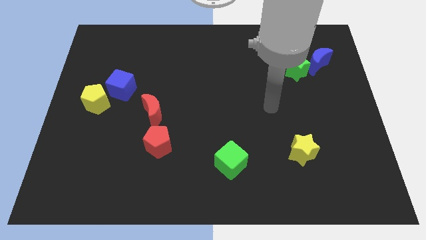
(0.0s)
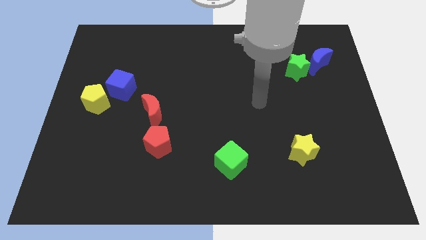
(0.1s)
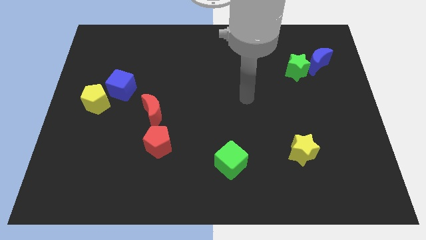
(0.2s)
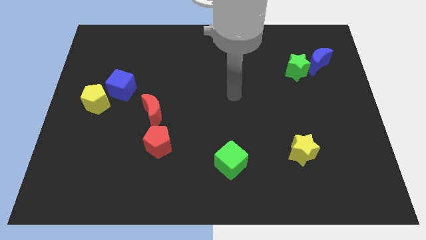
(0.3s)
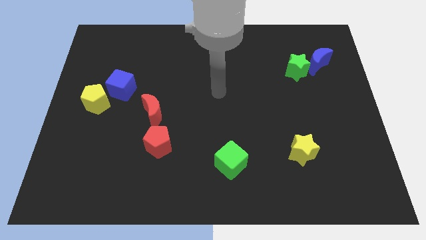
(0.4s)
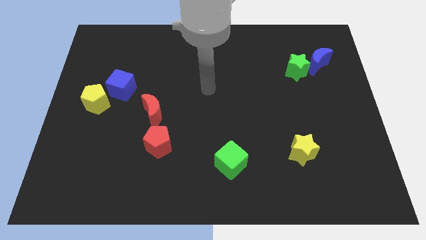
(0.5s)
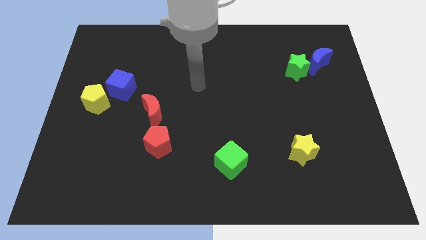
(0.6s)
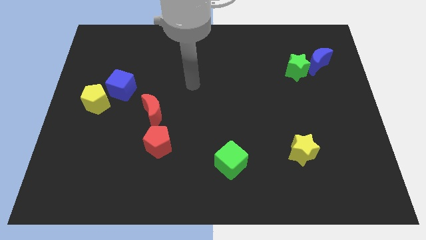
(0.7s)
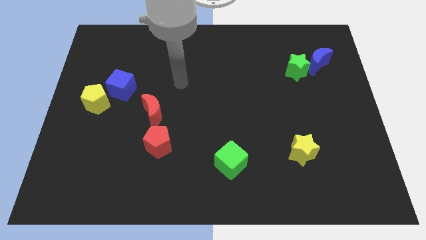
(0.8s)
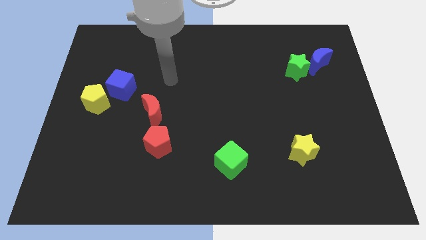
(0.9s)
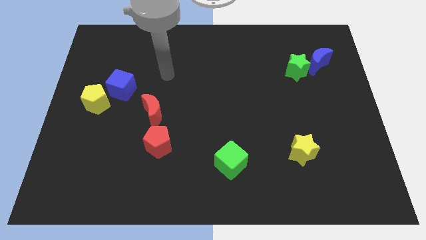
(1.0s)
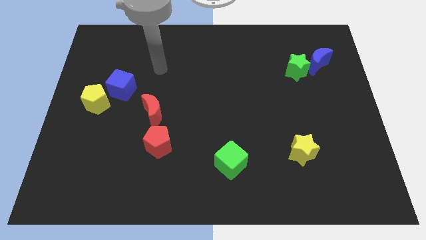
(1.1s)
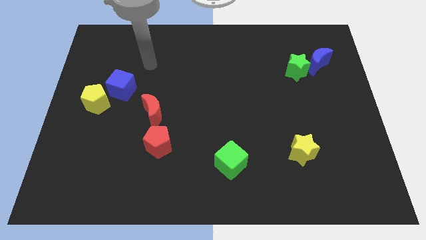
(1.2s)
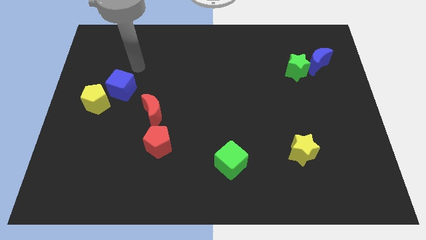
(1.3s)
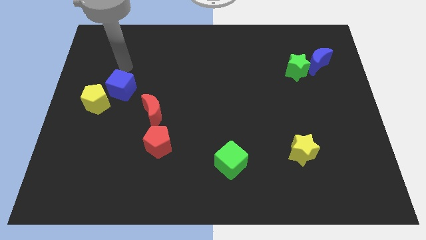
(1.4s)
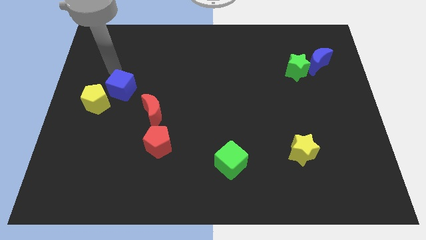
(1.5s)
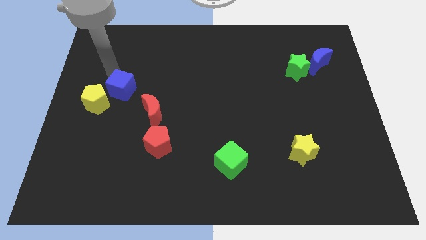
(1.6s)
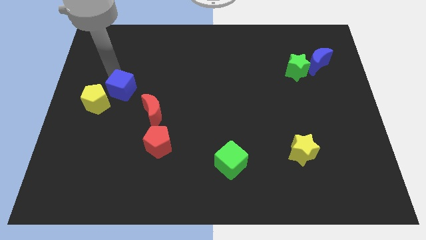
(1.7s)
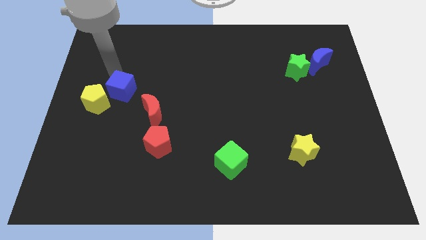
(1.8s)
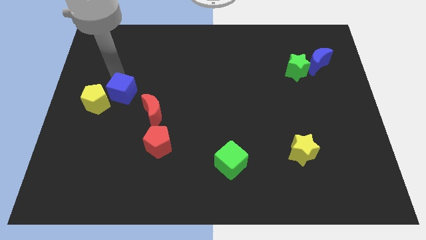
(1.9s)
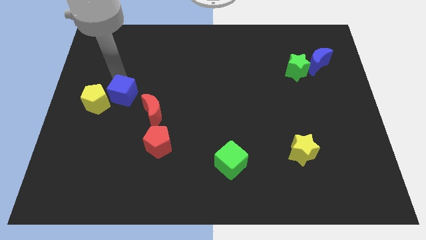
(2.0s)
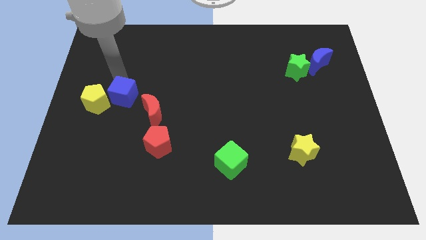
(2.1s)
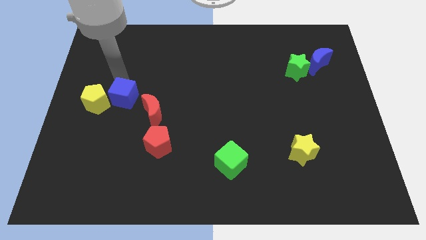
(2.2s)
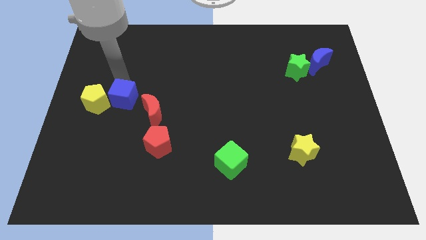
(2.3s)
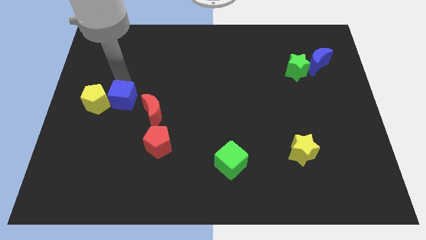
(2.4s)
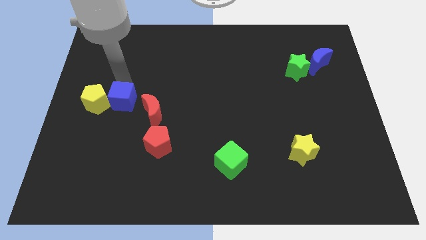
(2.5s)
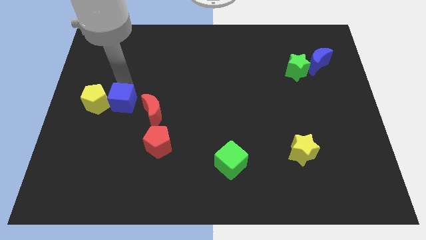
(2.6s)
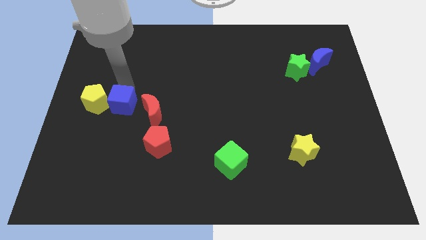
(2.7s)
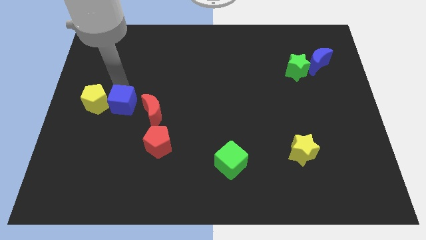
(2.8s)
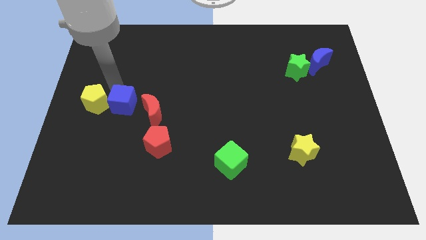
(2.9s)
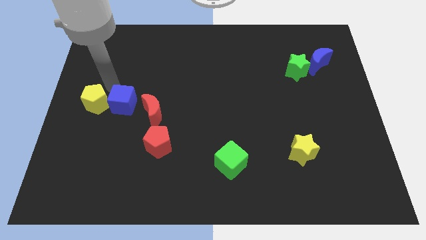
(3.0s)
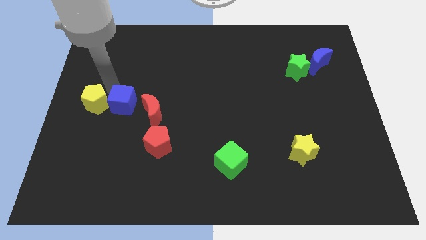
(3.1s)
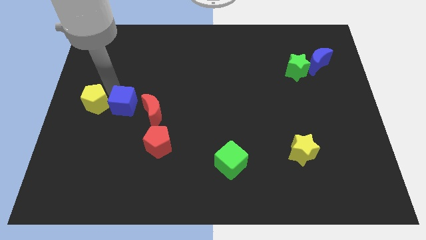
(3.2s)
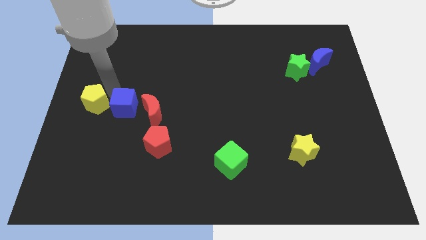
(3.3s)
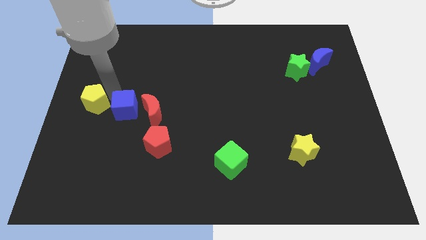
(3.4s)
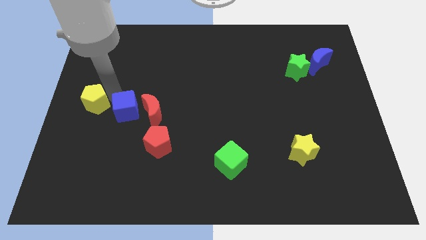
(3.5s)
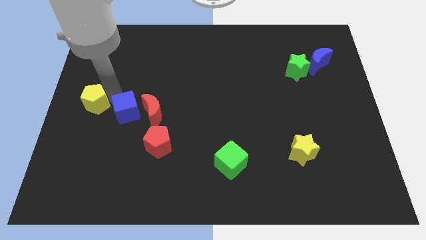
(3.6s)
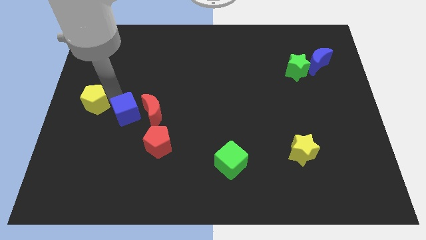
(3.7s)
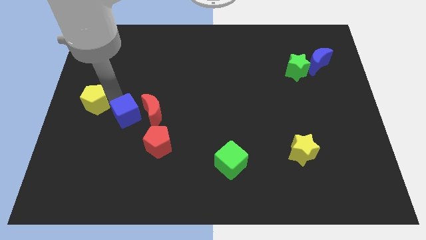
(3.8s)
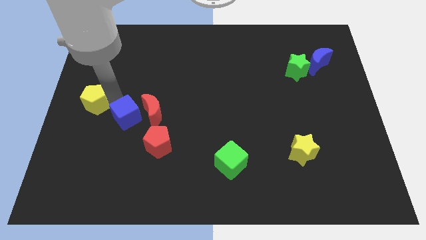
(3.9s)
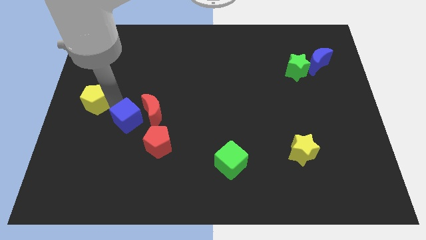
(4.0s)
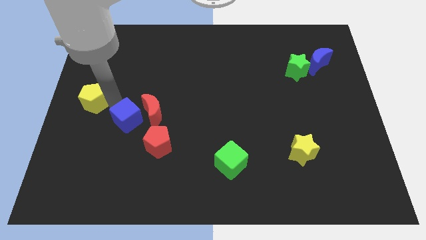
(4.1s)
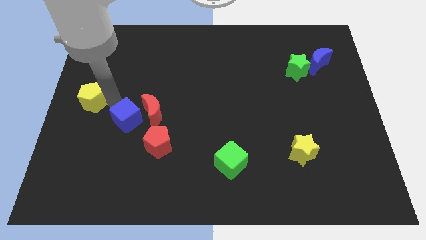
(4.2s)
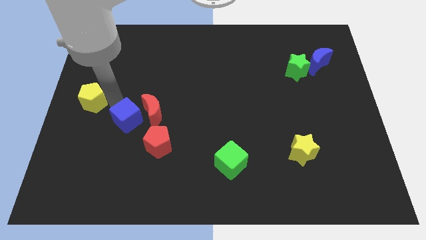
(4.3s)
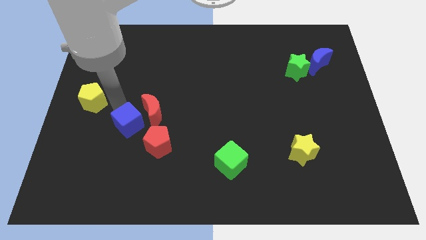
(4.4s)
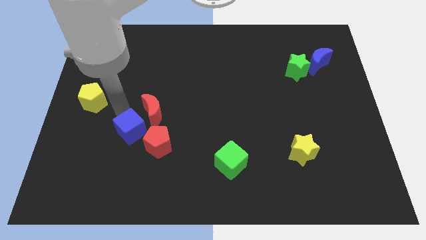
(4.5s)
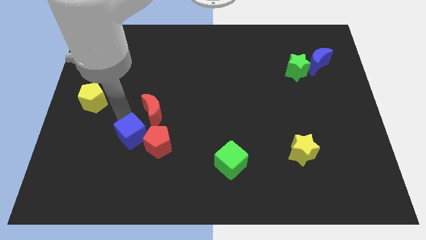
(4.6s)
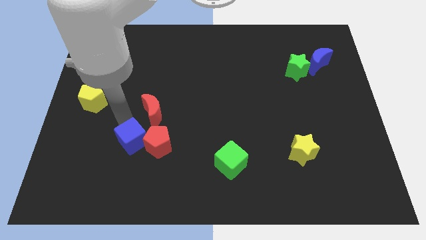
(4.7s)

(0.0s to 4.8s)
put the blue cube to the red pentagon

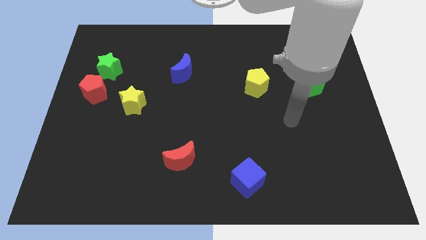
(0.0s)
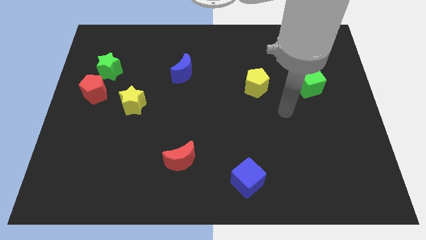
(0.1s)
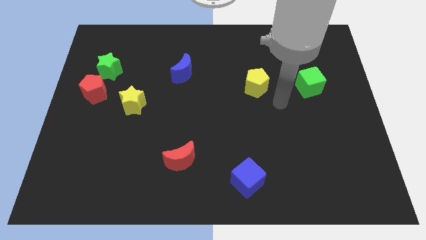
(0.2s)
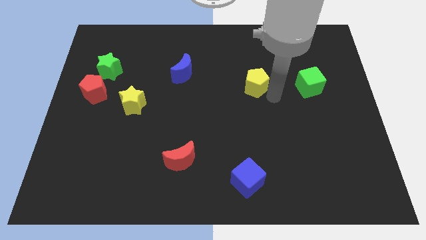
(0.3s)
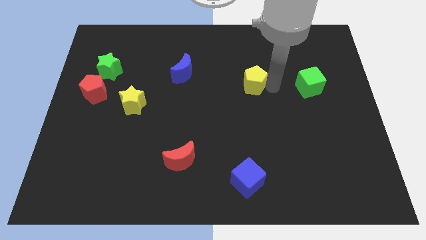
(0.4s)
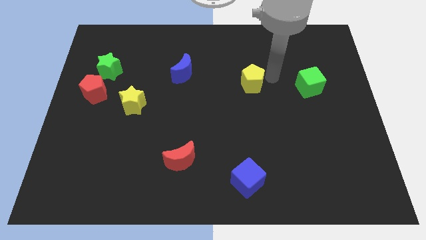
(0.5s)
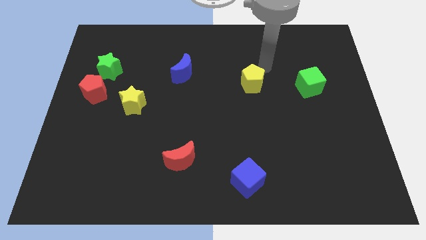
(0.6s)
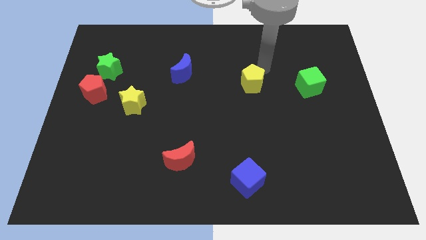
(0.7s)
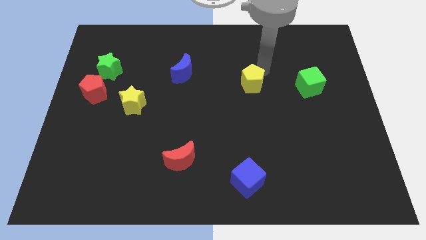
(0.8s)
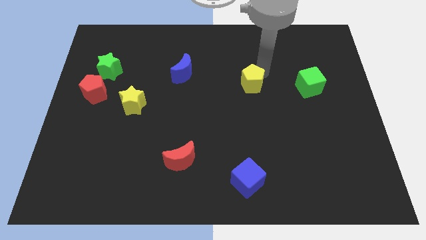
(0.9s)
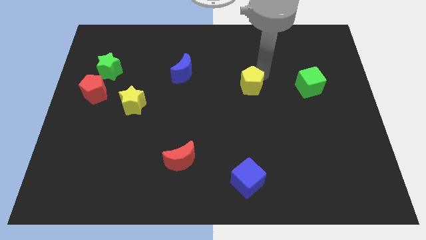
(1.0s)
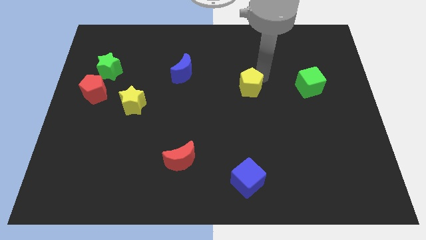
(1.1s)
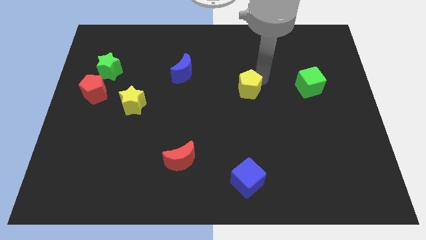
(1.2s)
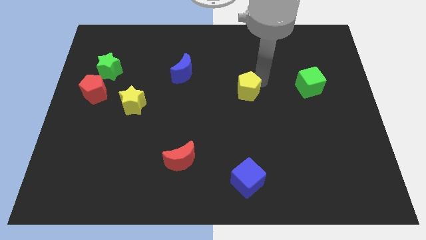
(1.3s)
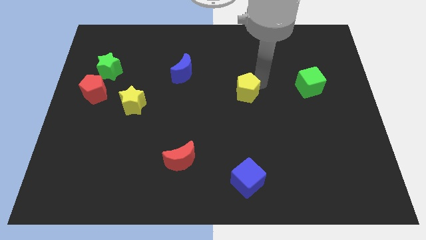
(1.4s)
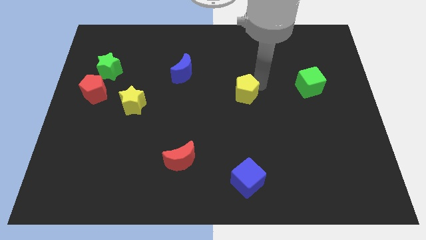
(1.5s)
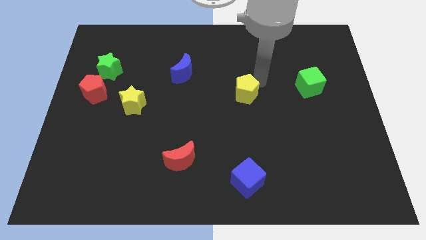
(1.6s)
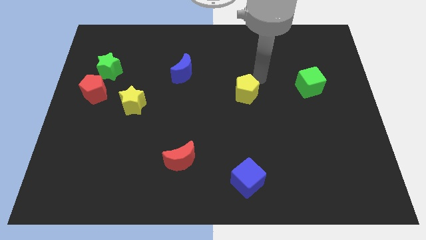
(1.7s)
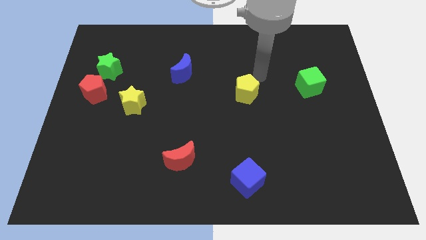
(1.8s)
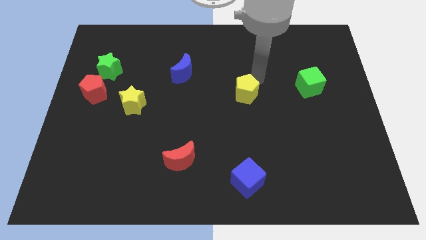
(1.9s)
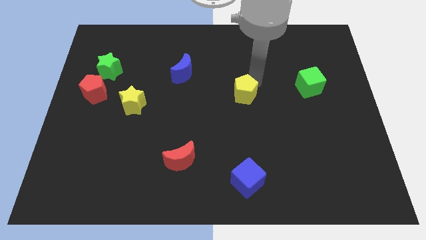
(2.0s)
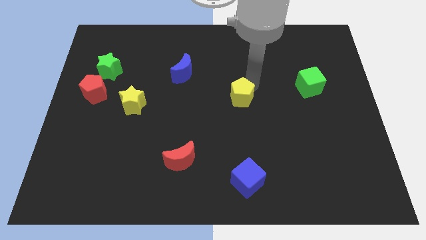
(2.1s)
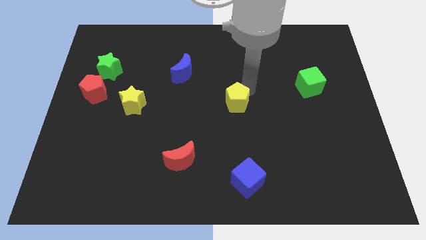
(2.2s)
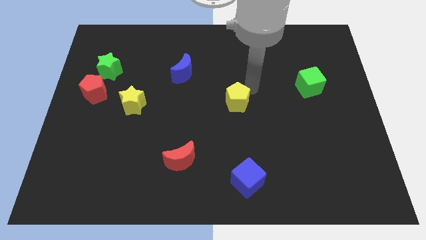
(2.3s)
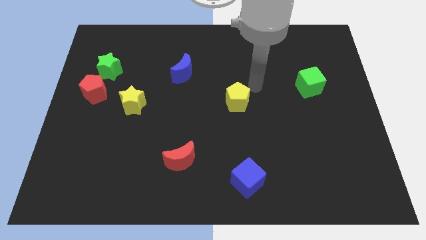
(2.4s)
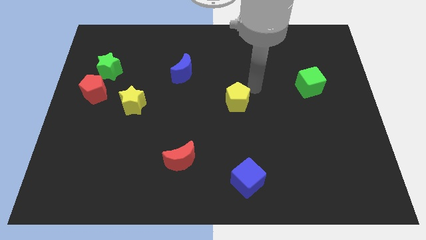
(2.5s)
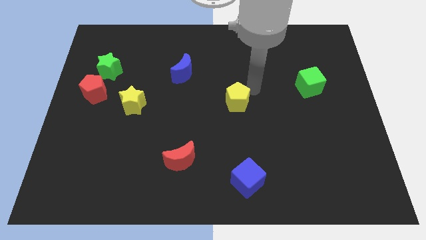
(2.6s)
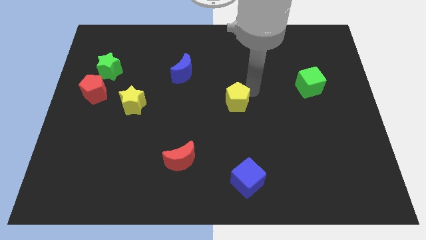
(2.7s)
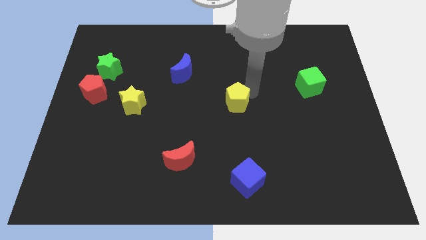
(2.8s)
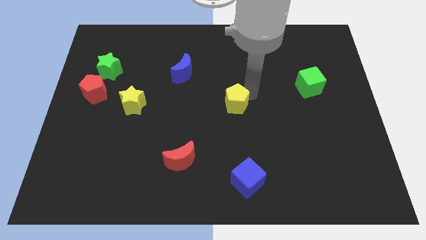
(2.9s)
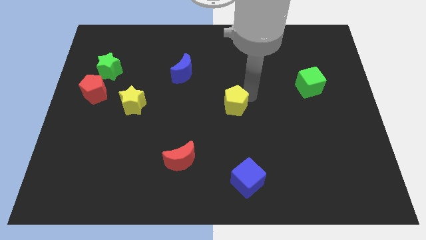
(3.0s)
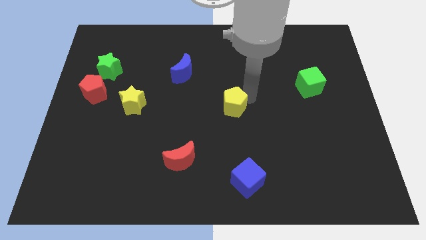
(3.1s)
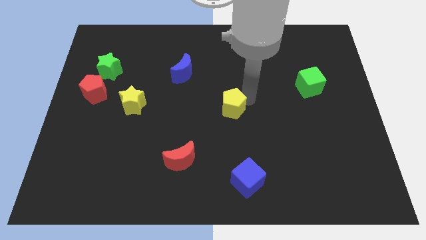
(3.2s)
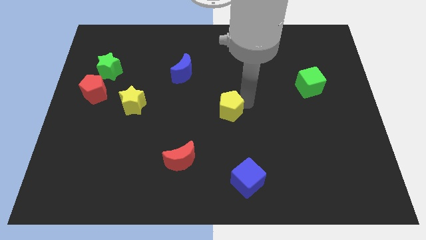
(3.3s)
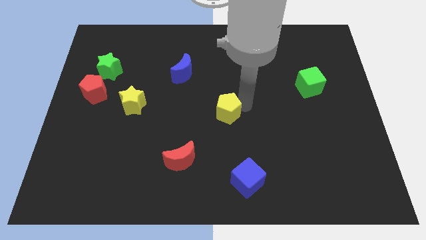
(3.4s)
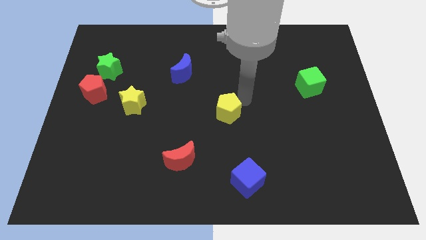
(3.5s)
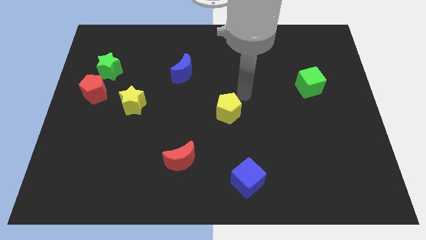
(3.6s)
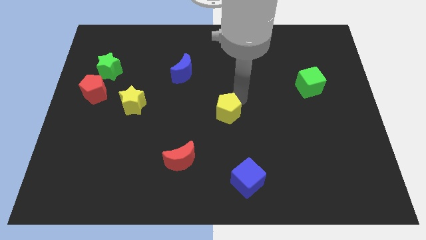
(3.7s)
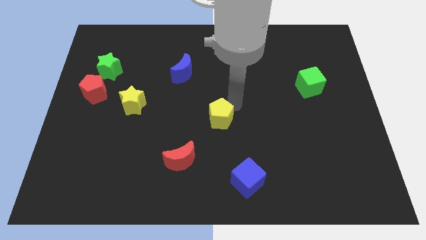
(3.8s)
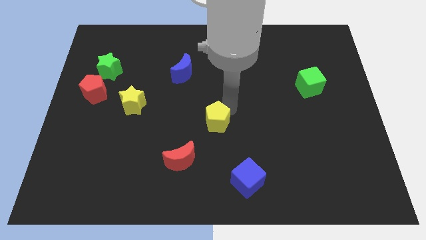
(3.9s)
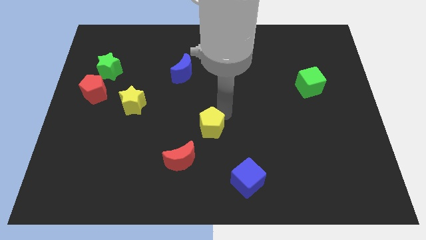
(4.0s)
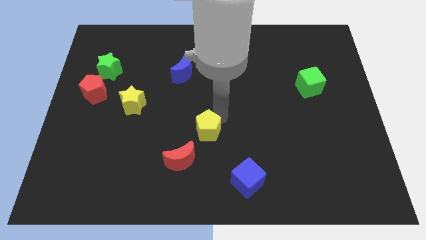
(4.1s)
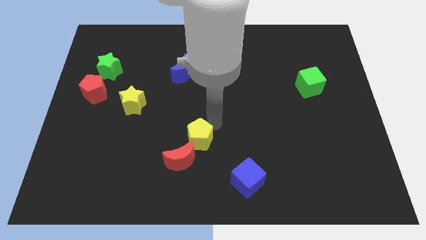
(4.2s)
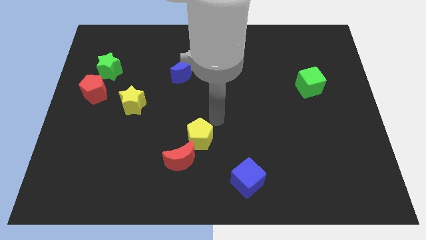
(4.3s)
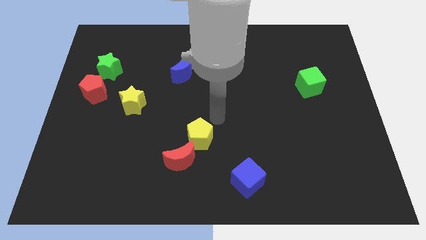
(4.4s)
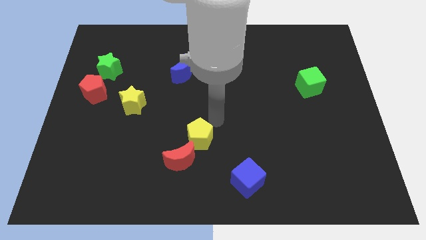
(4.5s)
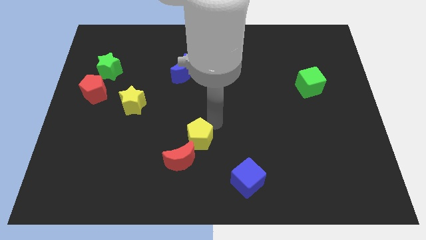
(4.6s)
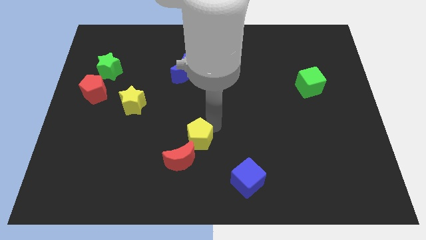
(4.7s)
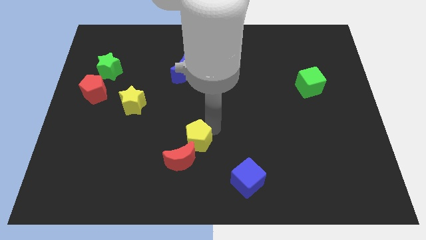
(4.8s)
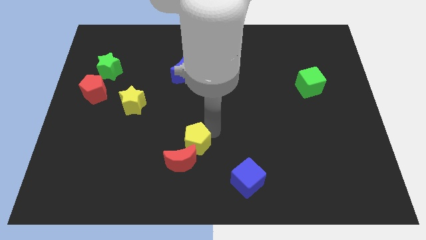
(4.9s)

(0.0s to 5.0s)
push the yellow pentagon close to the red moon
